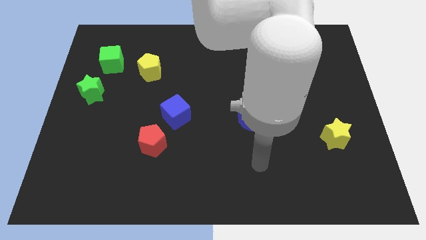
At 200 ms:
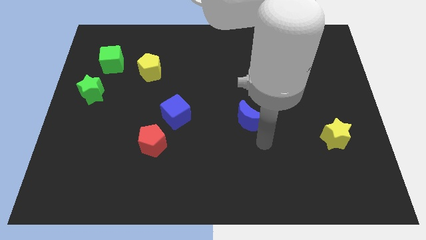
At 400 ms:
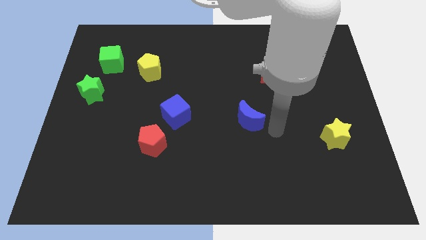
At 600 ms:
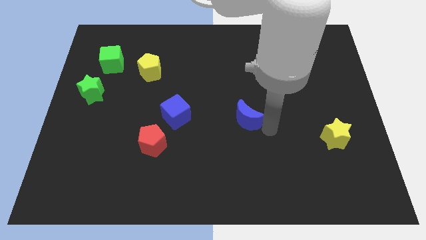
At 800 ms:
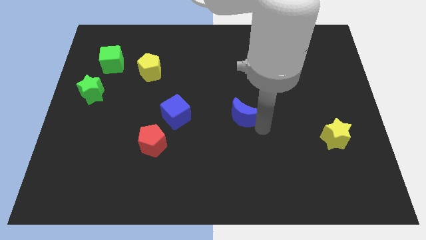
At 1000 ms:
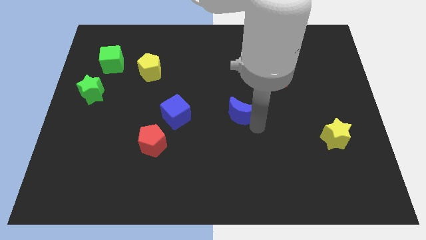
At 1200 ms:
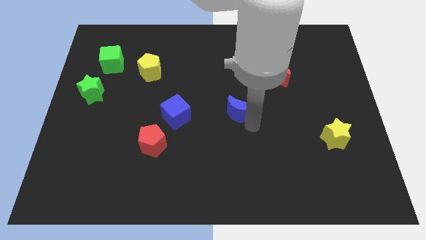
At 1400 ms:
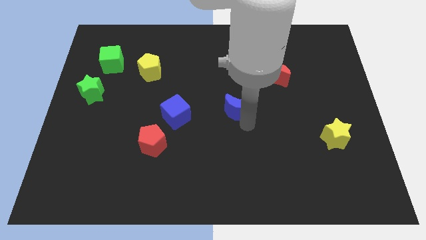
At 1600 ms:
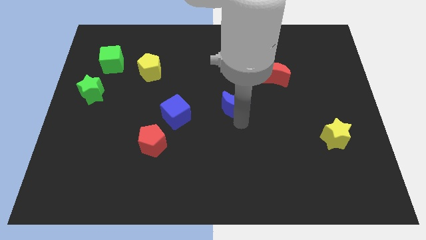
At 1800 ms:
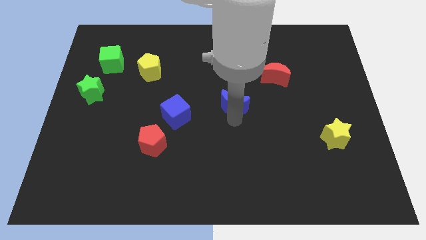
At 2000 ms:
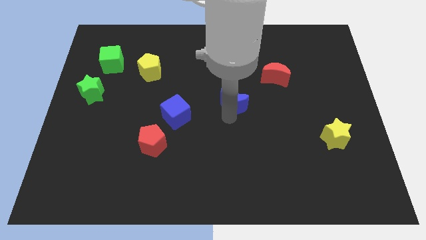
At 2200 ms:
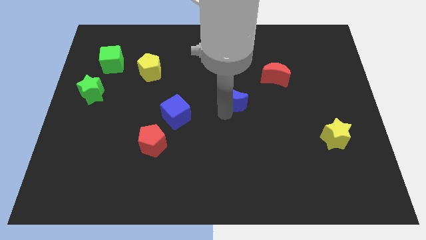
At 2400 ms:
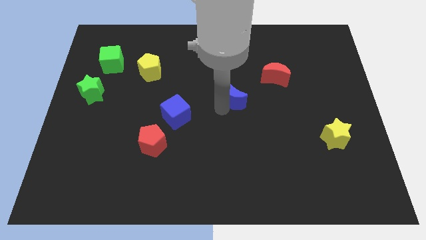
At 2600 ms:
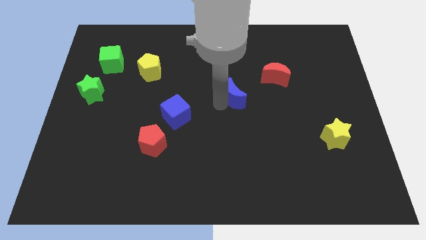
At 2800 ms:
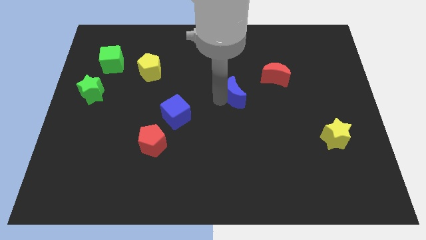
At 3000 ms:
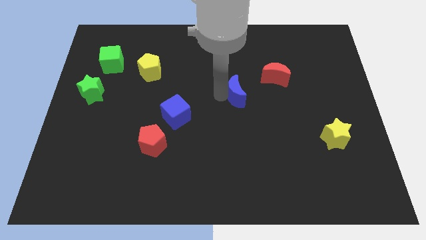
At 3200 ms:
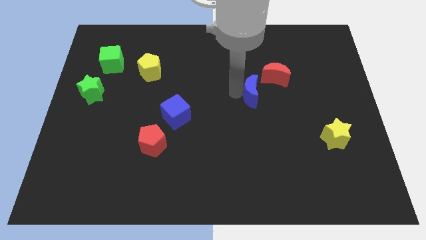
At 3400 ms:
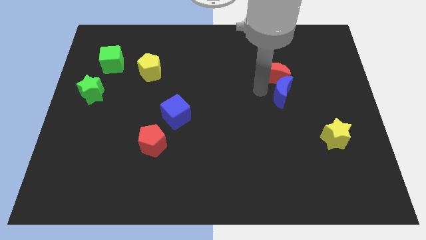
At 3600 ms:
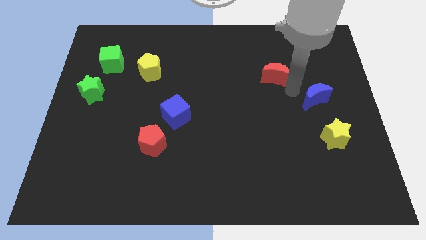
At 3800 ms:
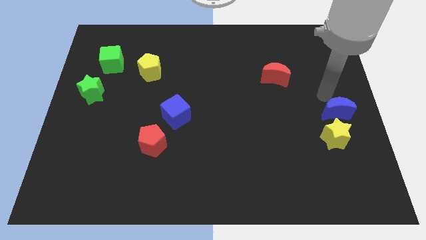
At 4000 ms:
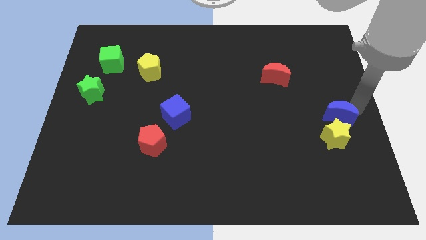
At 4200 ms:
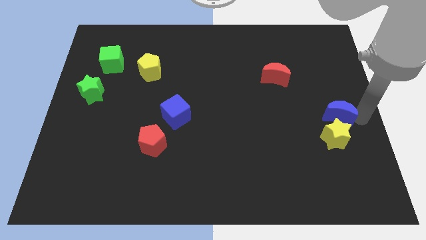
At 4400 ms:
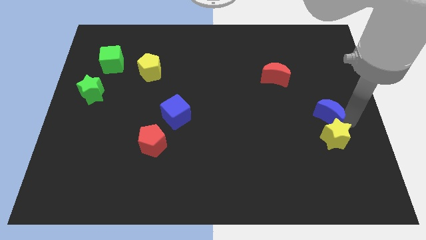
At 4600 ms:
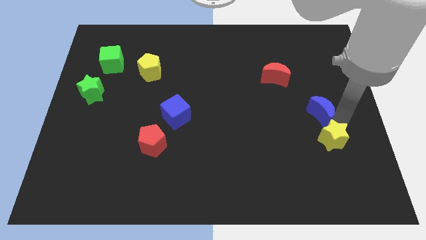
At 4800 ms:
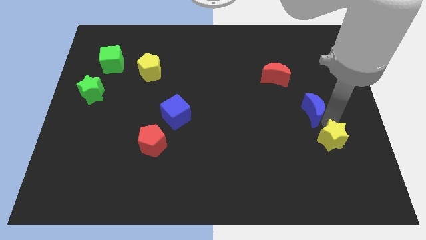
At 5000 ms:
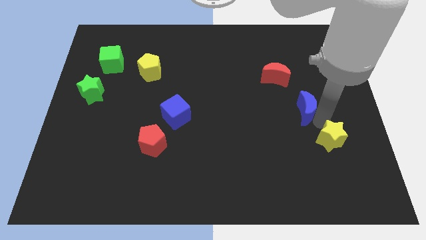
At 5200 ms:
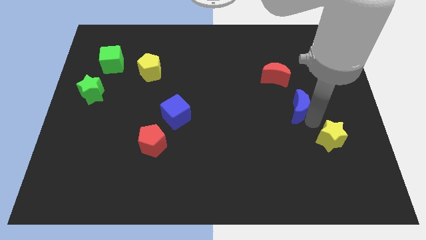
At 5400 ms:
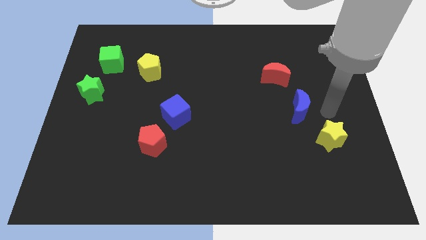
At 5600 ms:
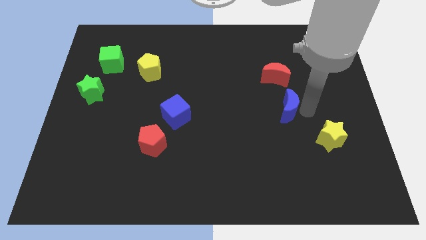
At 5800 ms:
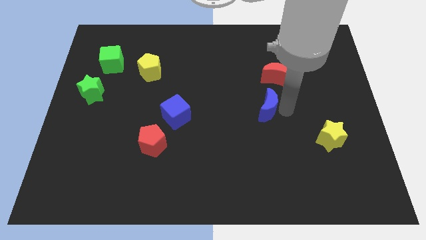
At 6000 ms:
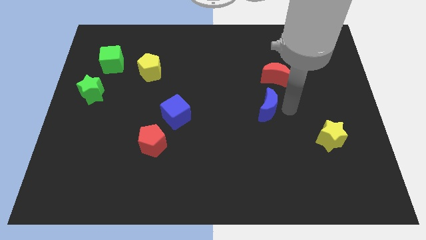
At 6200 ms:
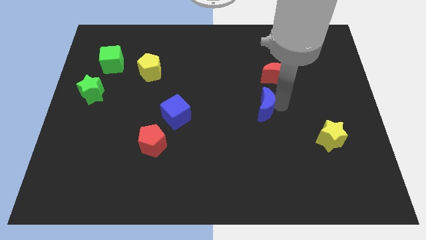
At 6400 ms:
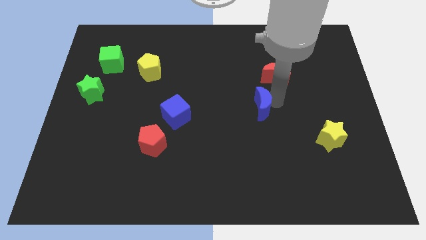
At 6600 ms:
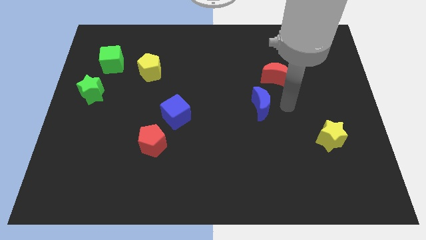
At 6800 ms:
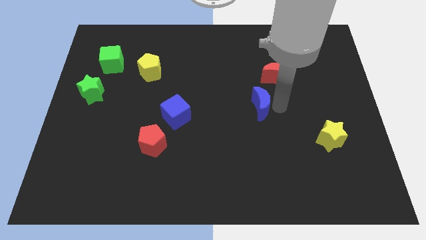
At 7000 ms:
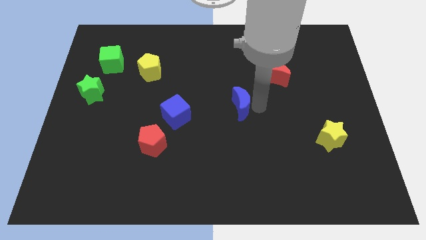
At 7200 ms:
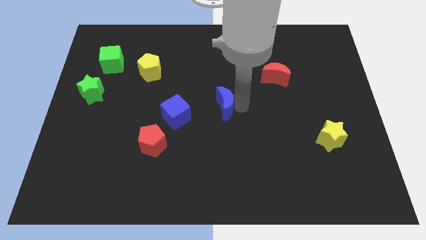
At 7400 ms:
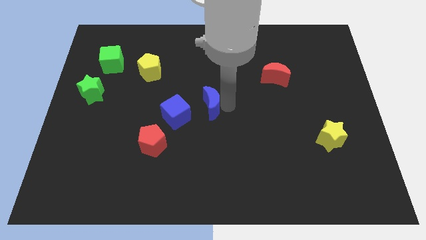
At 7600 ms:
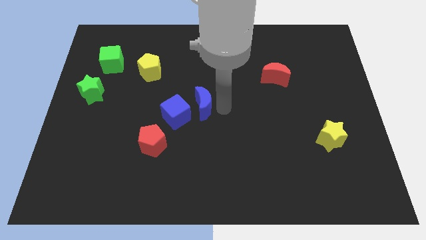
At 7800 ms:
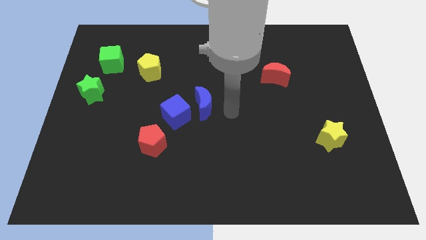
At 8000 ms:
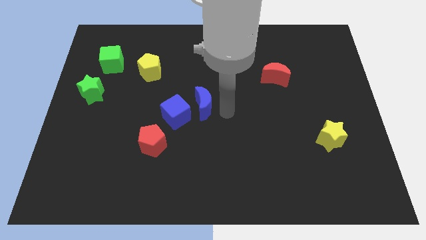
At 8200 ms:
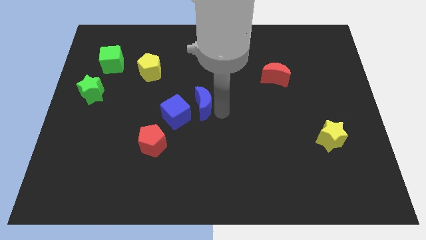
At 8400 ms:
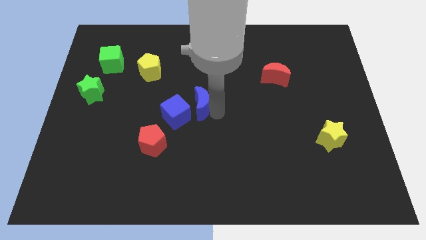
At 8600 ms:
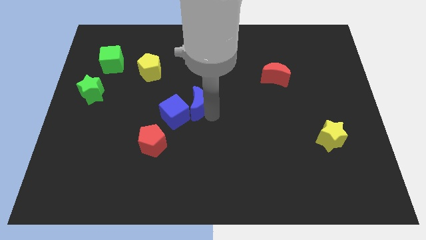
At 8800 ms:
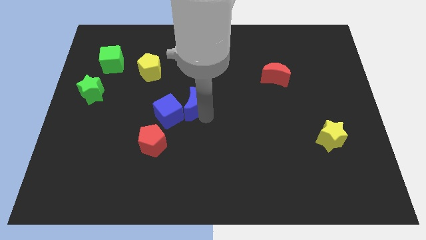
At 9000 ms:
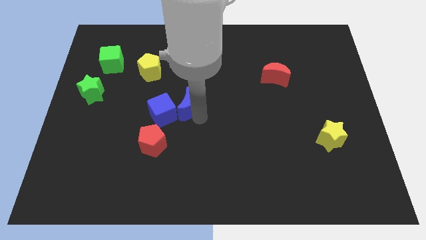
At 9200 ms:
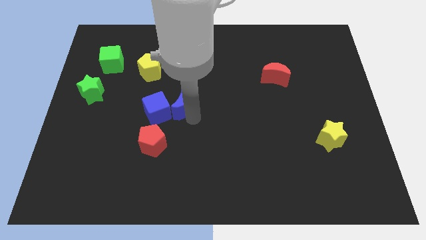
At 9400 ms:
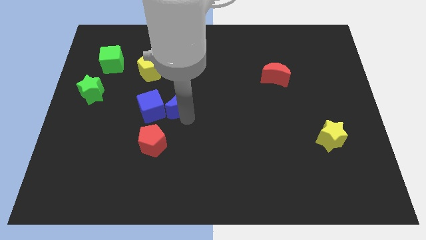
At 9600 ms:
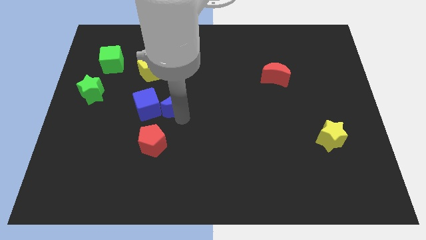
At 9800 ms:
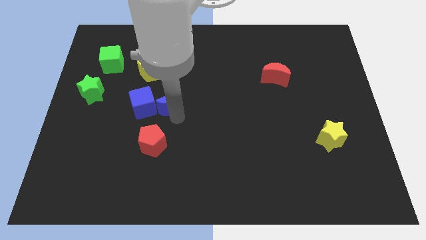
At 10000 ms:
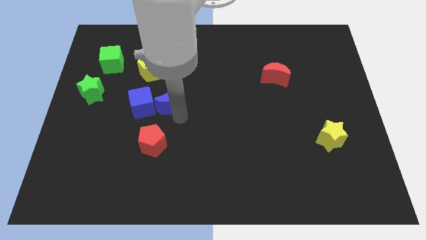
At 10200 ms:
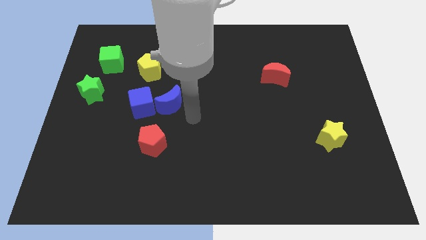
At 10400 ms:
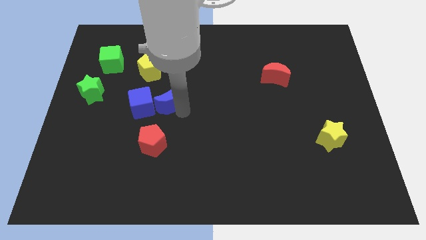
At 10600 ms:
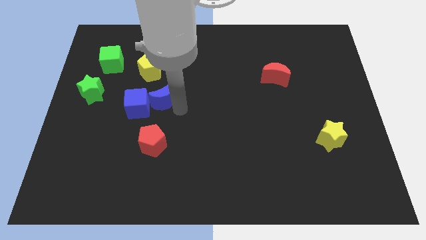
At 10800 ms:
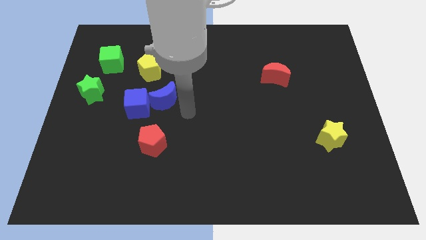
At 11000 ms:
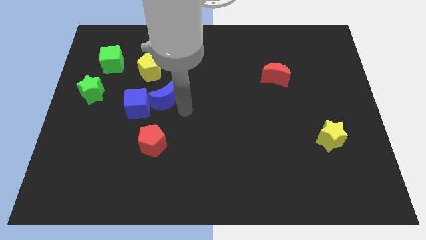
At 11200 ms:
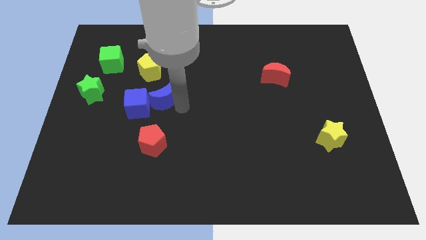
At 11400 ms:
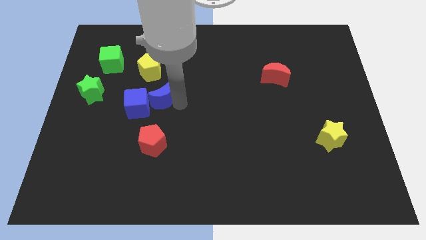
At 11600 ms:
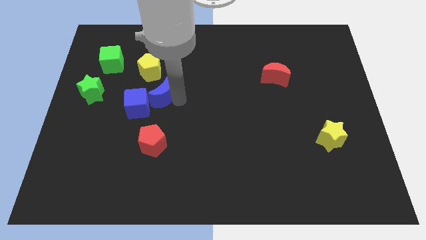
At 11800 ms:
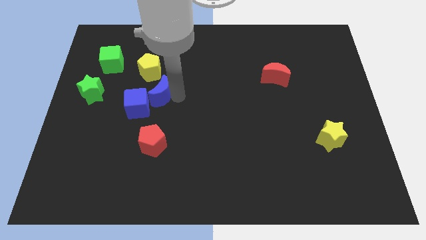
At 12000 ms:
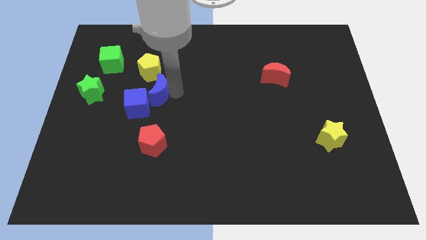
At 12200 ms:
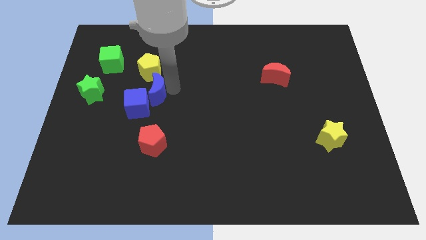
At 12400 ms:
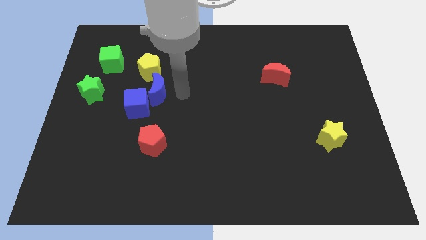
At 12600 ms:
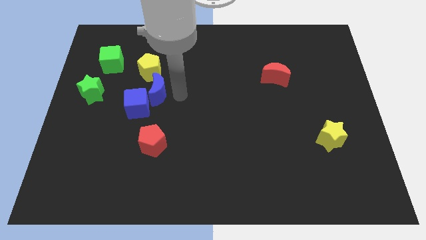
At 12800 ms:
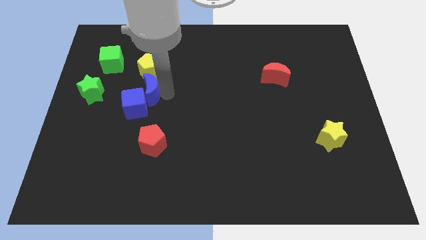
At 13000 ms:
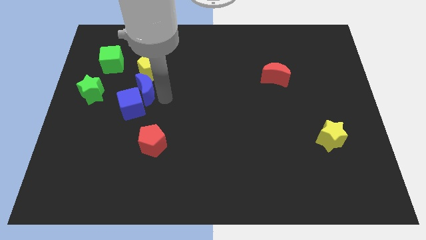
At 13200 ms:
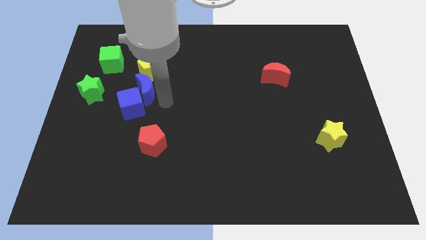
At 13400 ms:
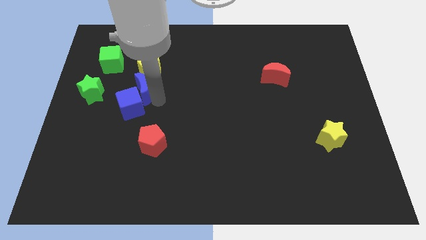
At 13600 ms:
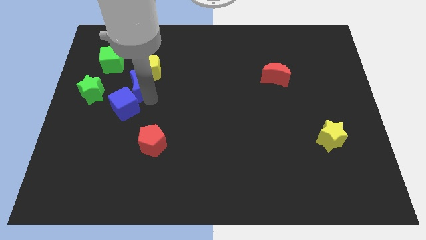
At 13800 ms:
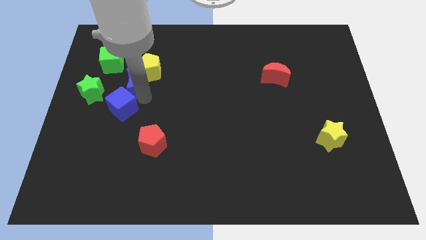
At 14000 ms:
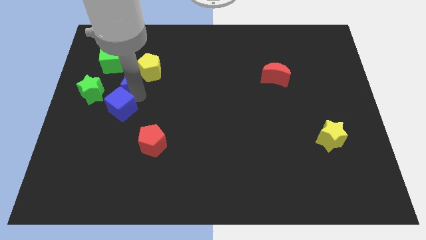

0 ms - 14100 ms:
slide the blue moon to the top right side of the green star
